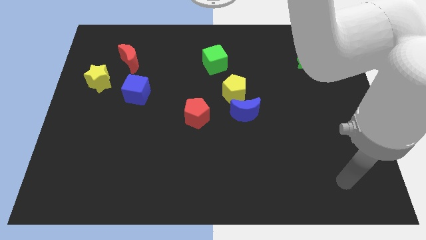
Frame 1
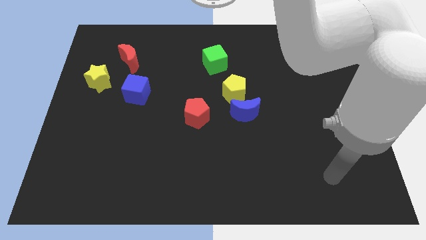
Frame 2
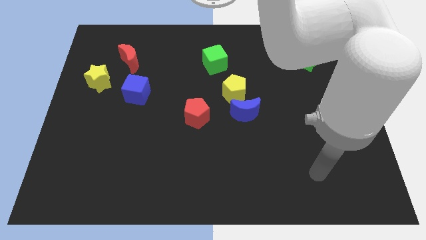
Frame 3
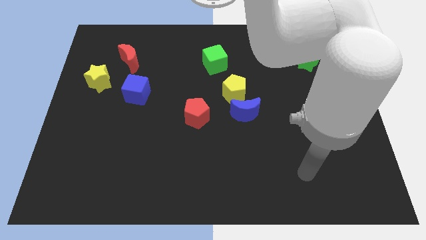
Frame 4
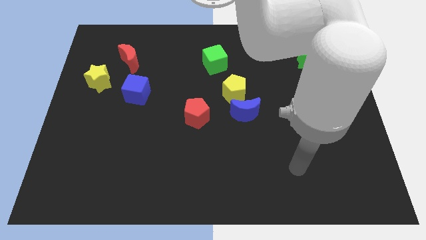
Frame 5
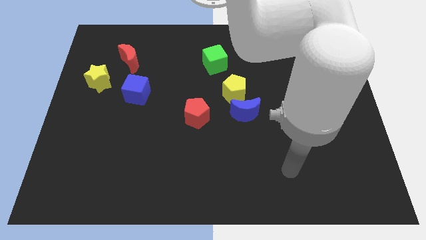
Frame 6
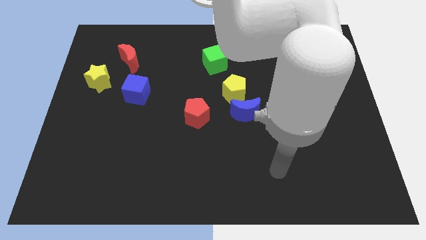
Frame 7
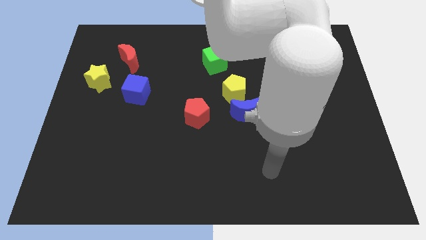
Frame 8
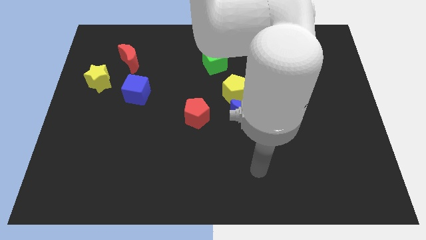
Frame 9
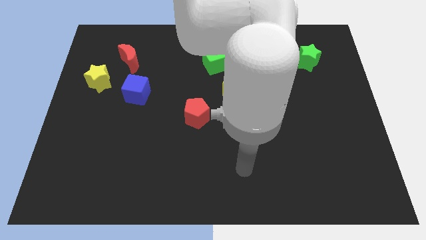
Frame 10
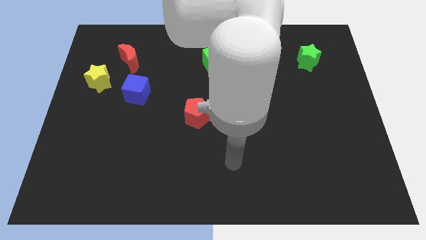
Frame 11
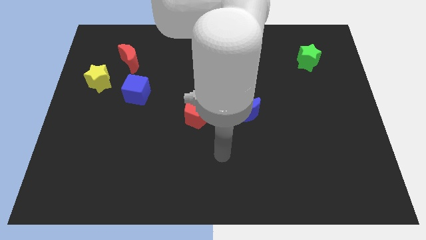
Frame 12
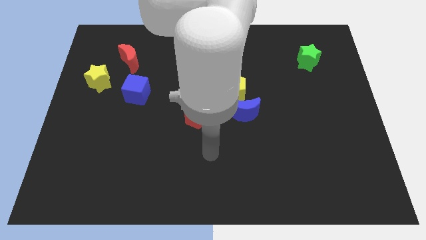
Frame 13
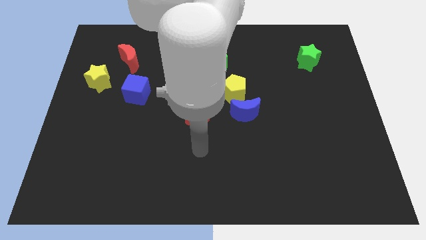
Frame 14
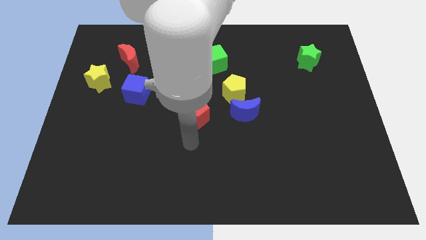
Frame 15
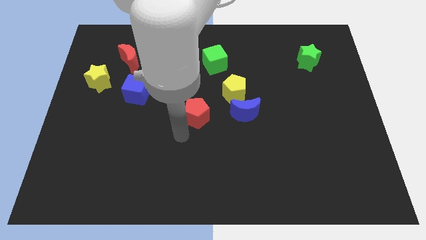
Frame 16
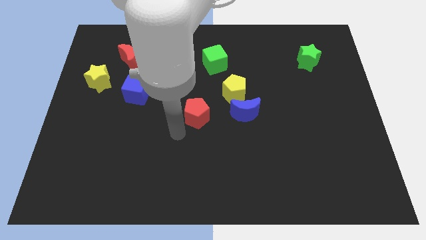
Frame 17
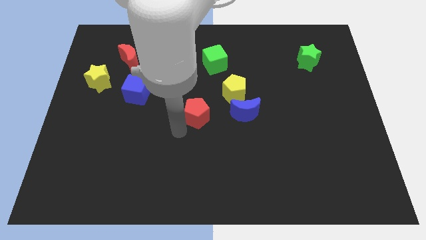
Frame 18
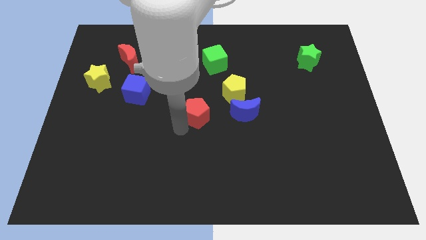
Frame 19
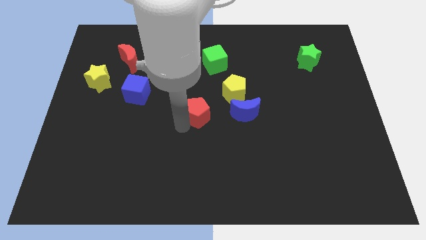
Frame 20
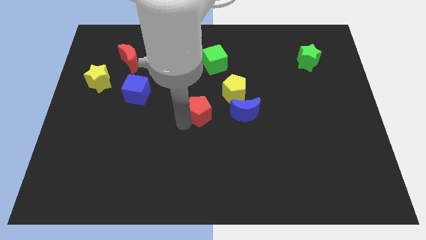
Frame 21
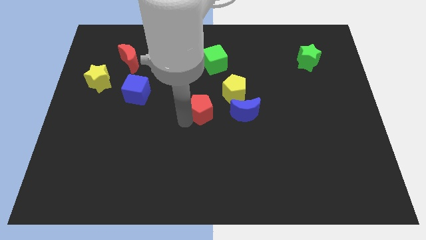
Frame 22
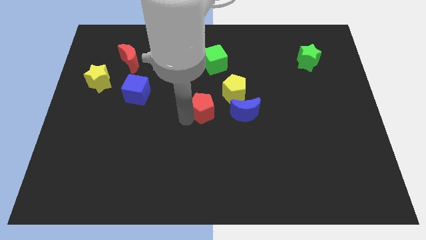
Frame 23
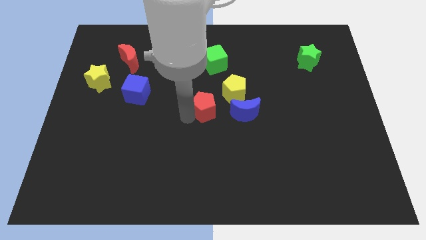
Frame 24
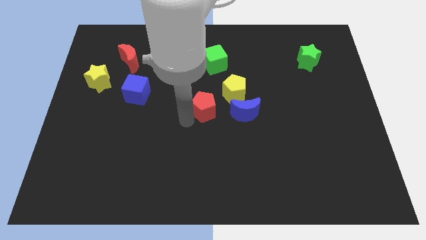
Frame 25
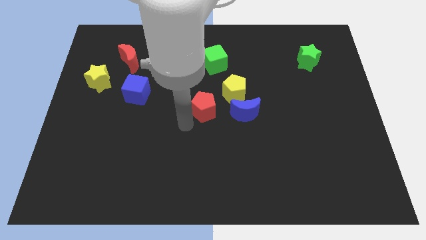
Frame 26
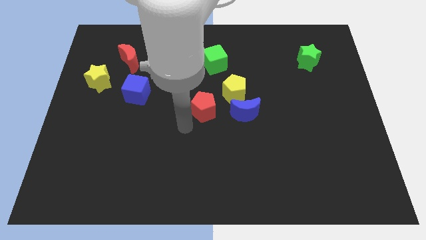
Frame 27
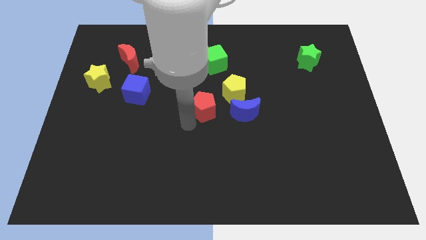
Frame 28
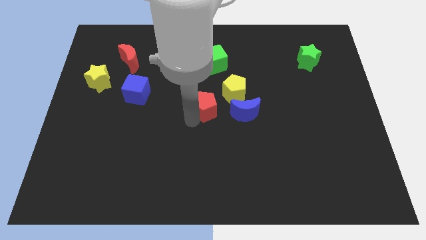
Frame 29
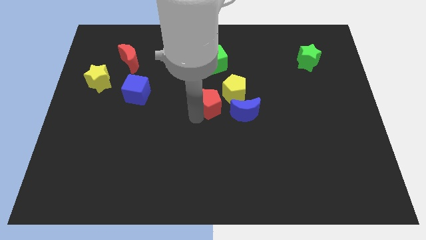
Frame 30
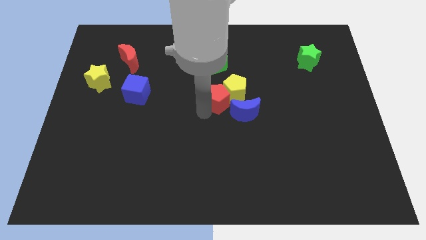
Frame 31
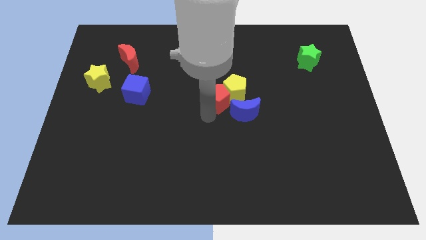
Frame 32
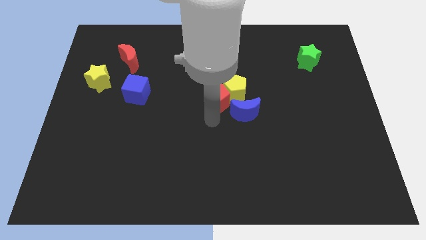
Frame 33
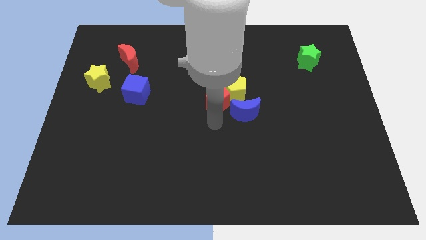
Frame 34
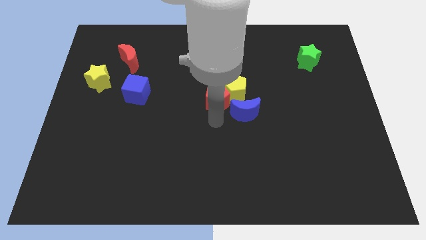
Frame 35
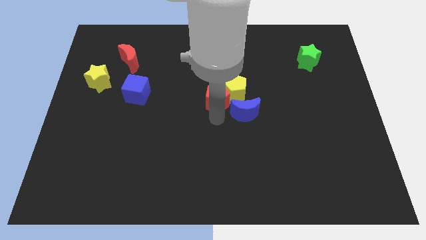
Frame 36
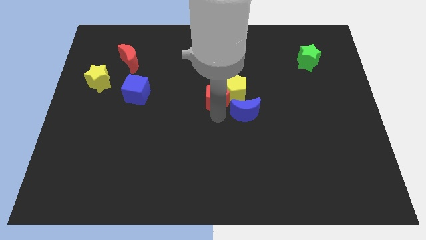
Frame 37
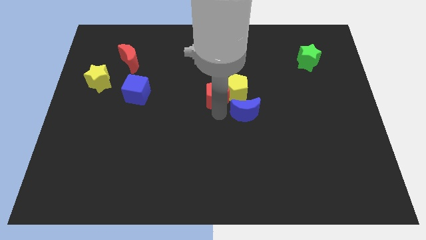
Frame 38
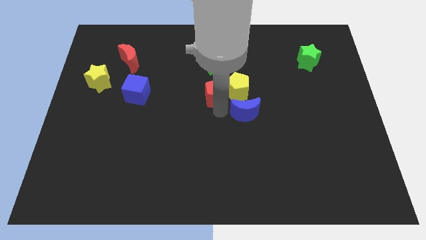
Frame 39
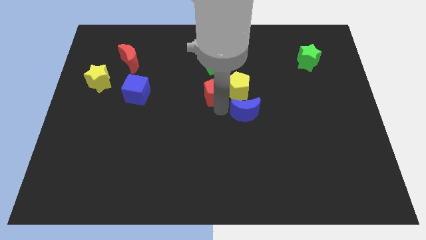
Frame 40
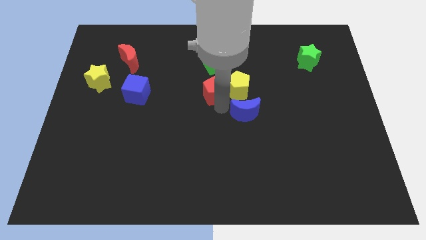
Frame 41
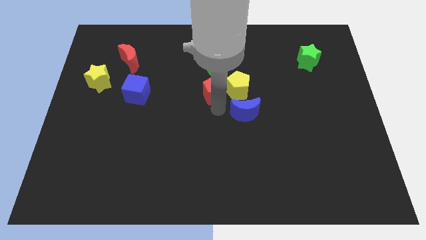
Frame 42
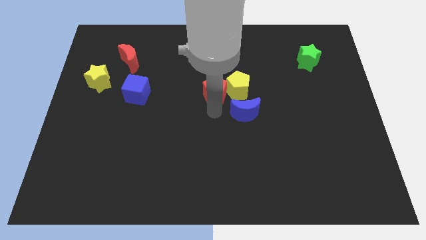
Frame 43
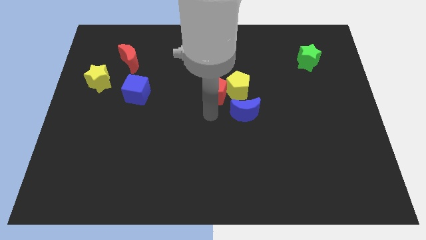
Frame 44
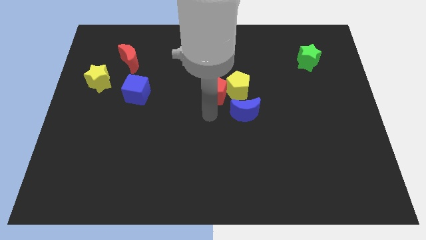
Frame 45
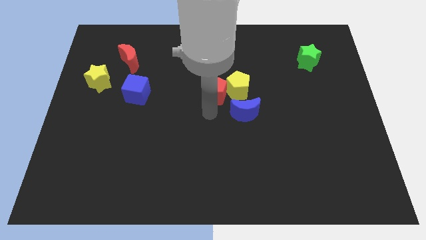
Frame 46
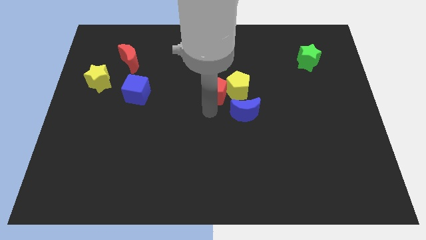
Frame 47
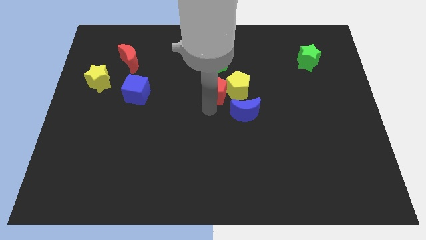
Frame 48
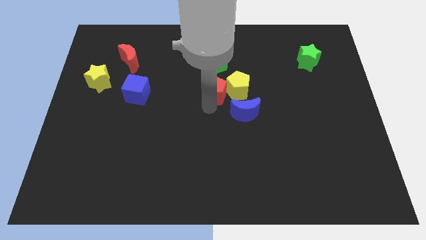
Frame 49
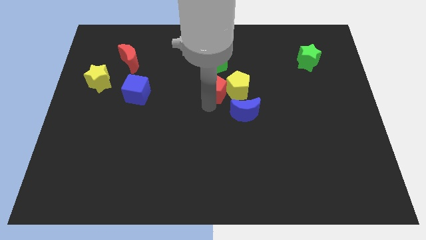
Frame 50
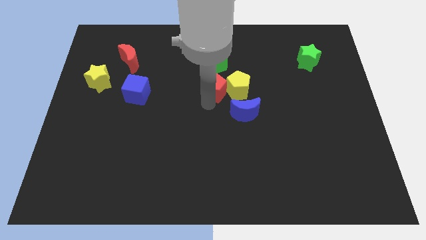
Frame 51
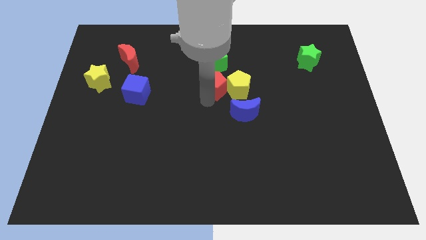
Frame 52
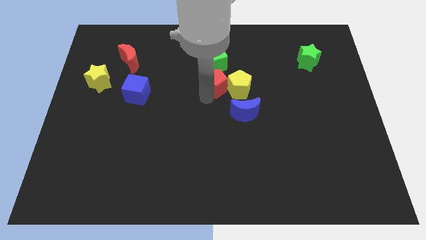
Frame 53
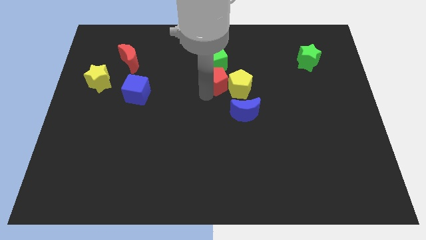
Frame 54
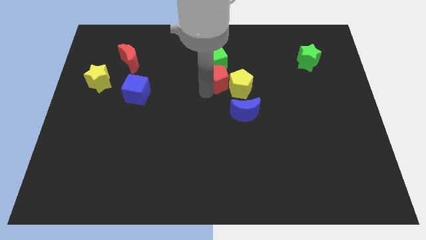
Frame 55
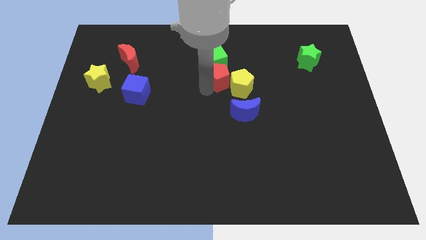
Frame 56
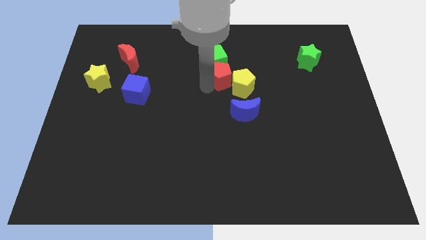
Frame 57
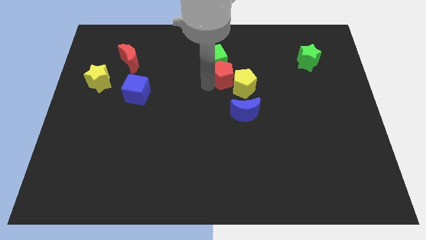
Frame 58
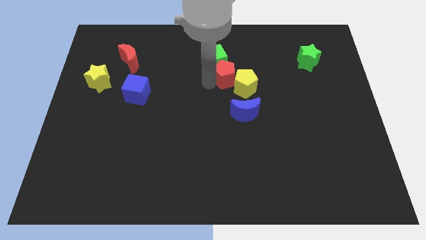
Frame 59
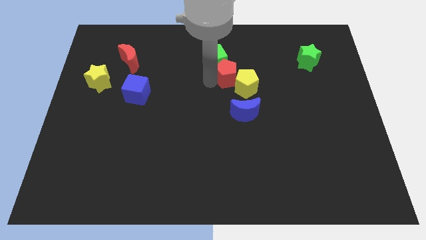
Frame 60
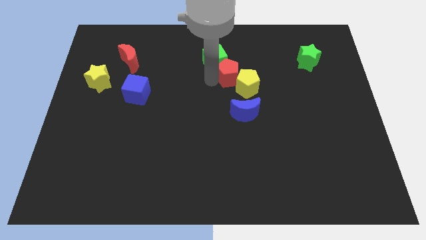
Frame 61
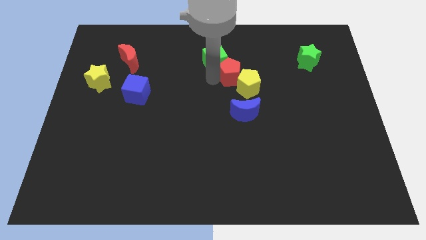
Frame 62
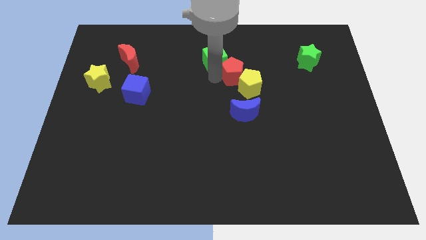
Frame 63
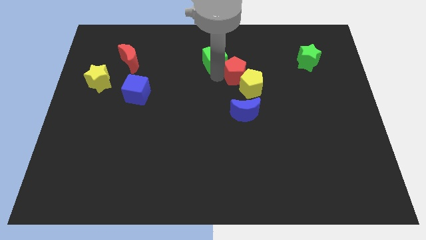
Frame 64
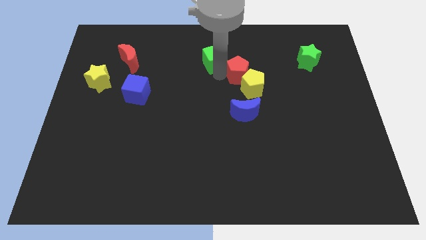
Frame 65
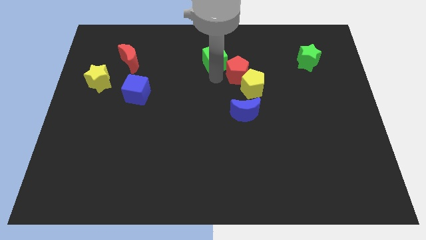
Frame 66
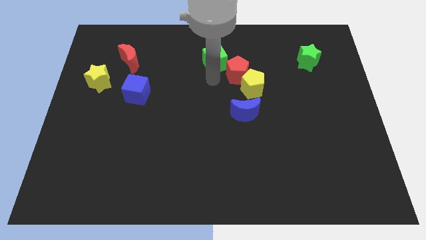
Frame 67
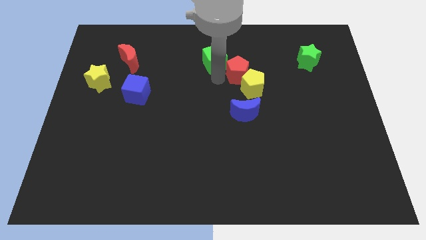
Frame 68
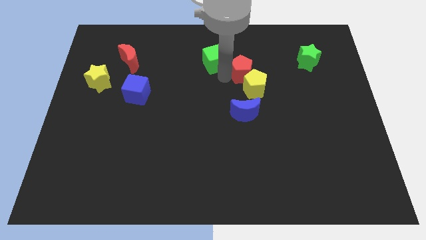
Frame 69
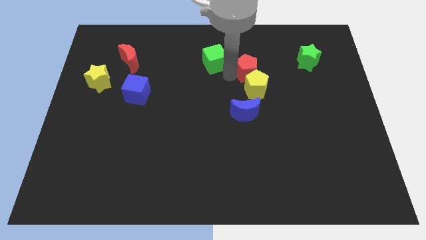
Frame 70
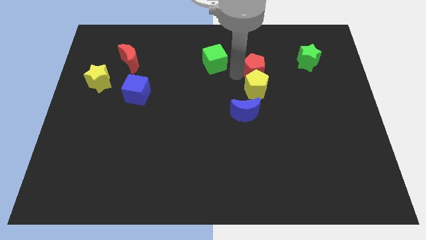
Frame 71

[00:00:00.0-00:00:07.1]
move the red pentagon just left of the green star
